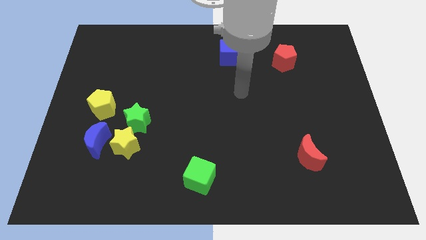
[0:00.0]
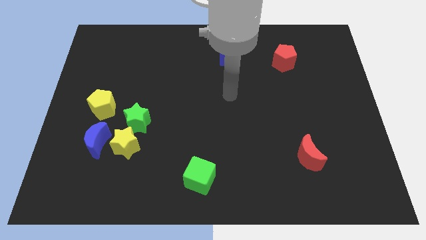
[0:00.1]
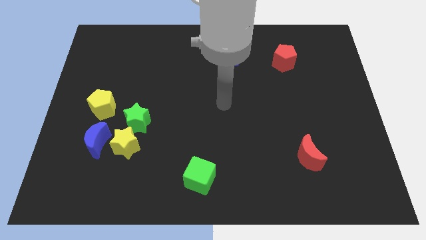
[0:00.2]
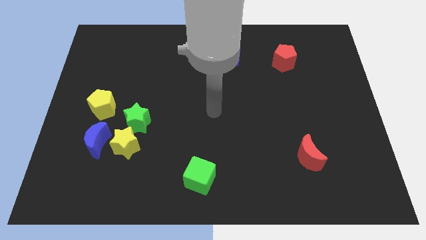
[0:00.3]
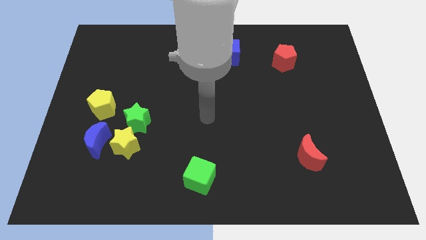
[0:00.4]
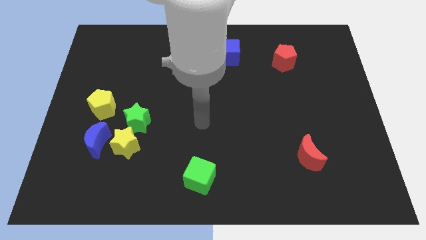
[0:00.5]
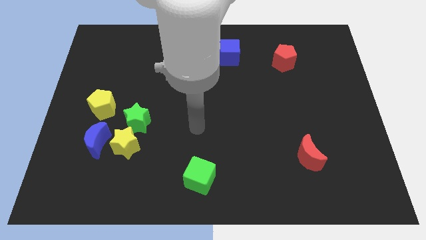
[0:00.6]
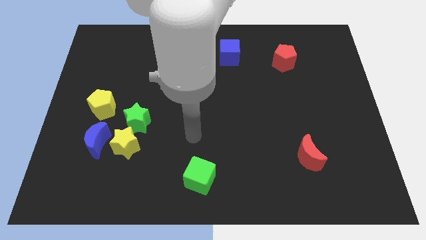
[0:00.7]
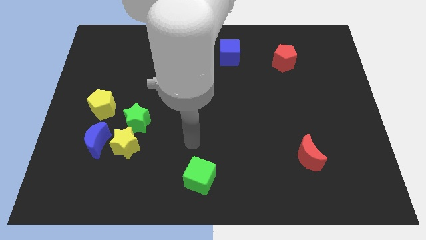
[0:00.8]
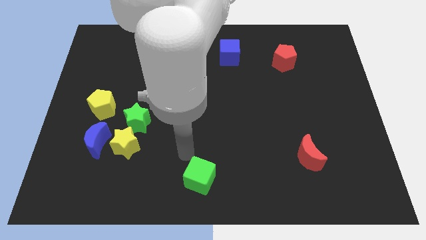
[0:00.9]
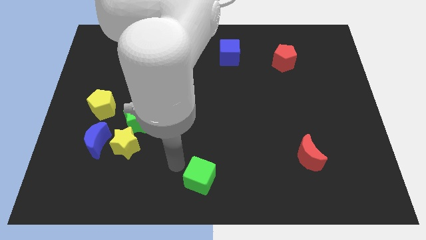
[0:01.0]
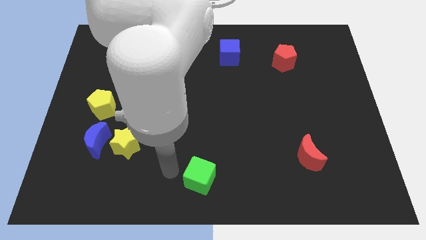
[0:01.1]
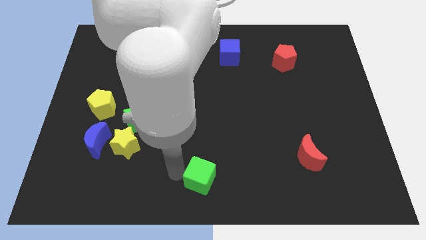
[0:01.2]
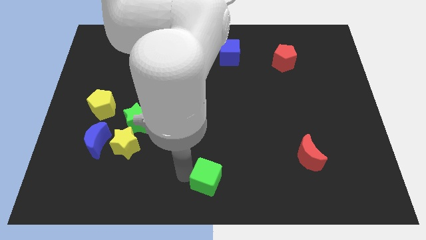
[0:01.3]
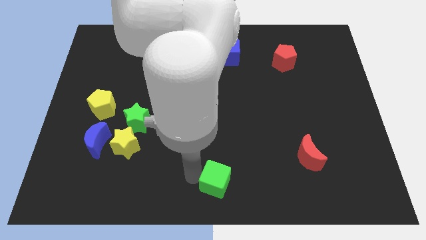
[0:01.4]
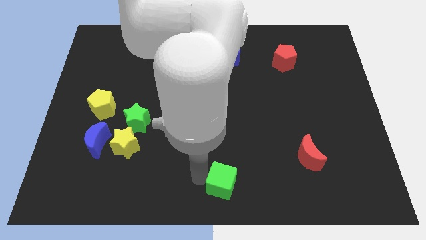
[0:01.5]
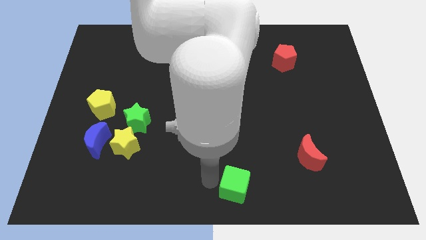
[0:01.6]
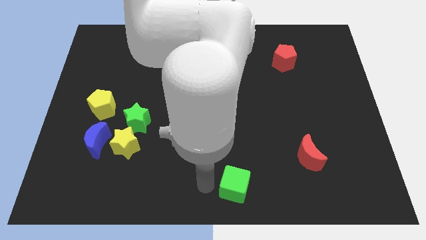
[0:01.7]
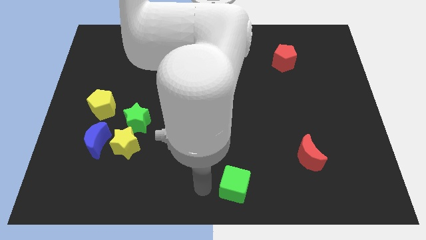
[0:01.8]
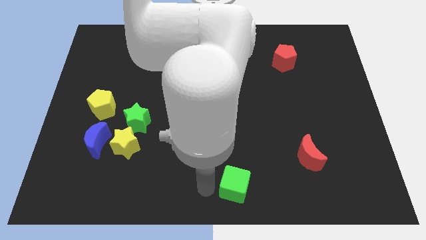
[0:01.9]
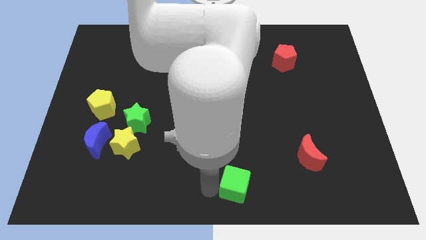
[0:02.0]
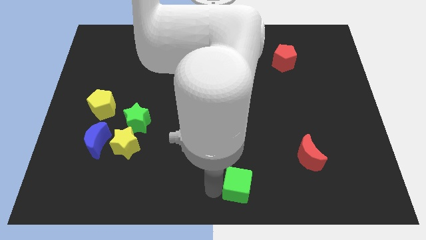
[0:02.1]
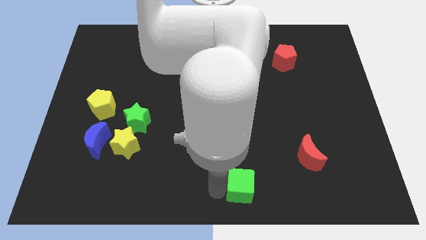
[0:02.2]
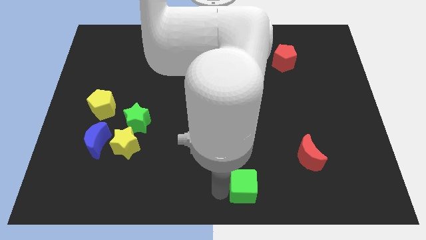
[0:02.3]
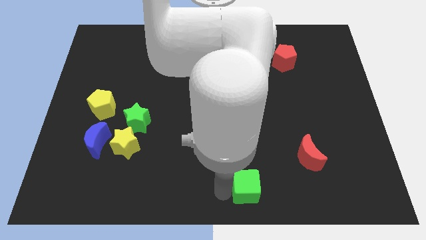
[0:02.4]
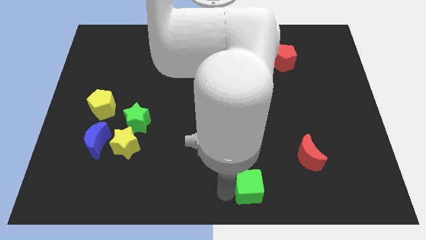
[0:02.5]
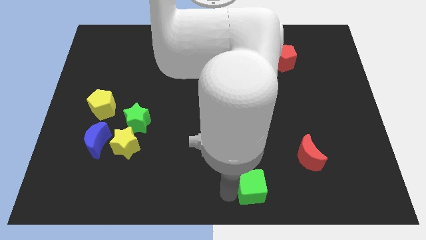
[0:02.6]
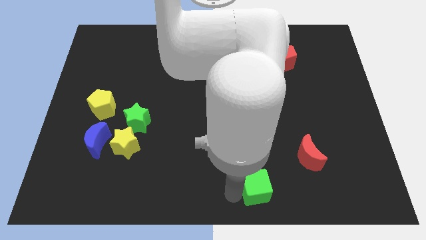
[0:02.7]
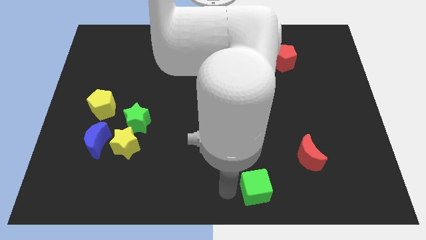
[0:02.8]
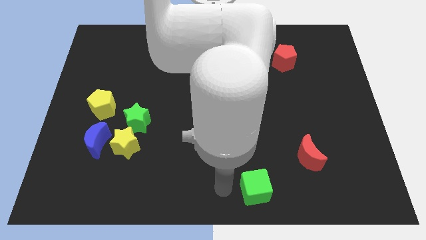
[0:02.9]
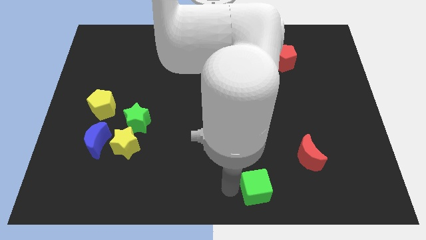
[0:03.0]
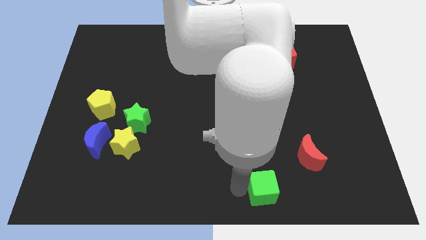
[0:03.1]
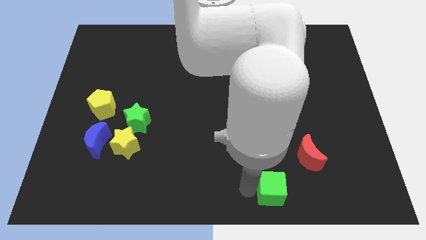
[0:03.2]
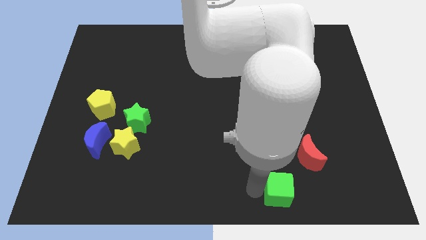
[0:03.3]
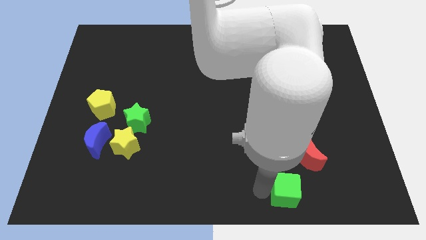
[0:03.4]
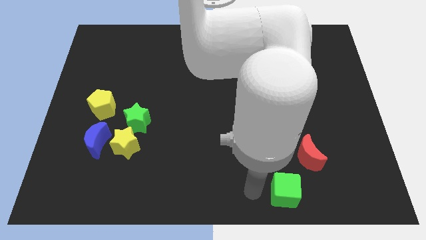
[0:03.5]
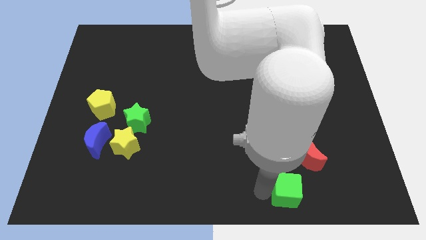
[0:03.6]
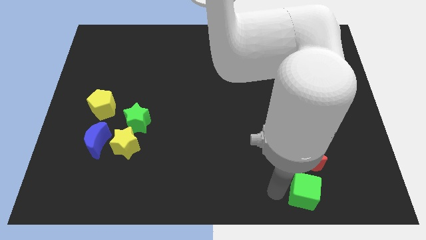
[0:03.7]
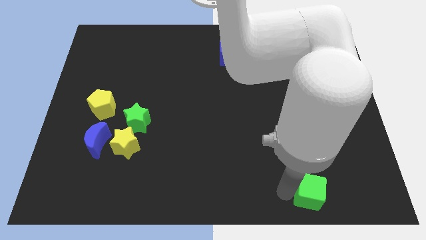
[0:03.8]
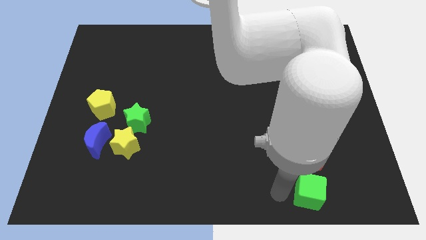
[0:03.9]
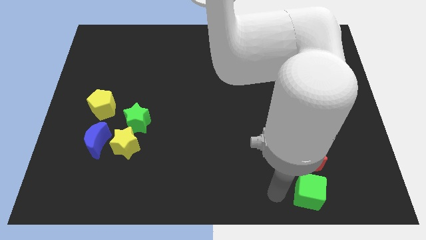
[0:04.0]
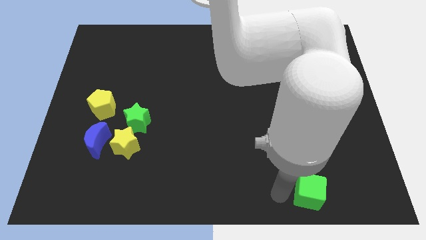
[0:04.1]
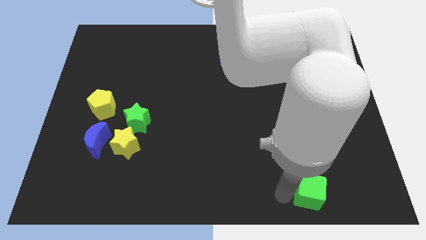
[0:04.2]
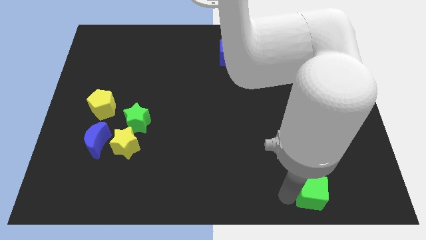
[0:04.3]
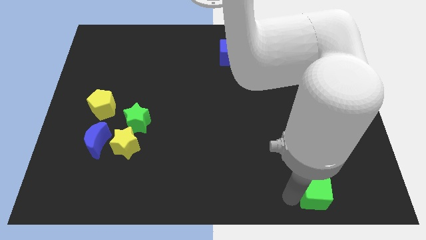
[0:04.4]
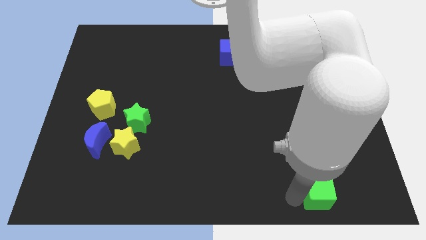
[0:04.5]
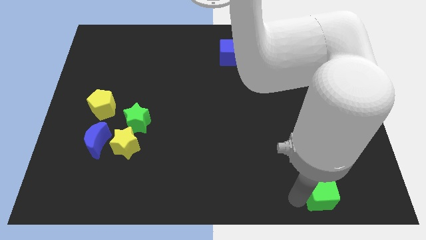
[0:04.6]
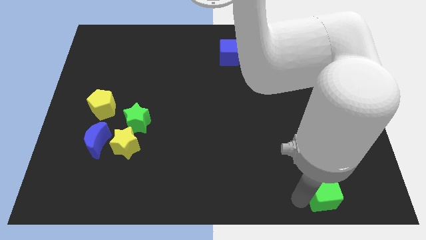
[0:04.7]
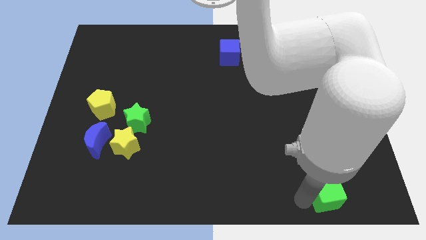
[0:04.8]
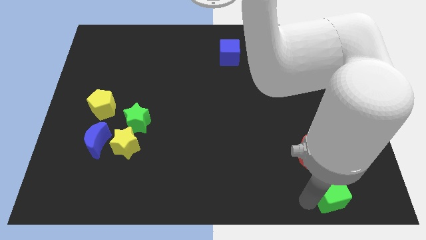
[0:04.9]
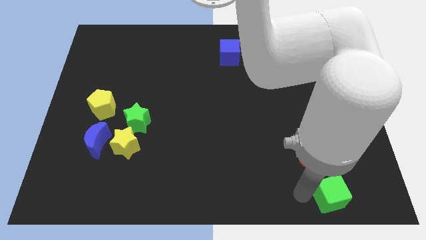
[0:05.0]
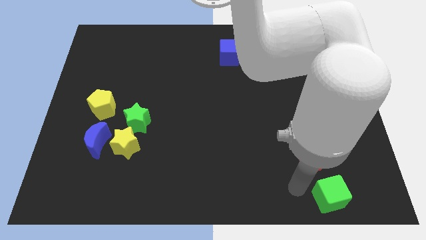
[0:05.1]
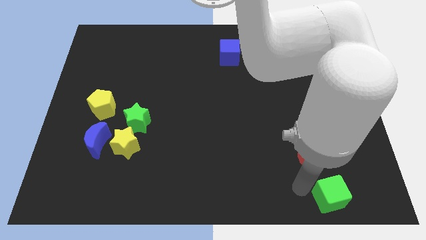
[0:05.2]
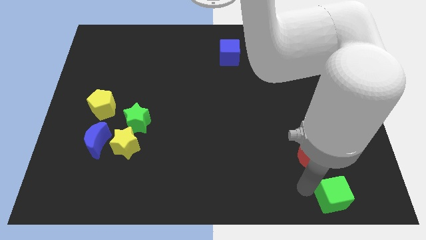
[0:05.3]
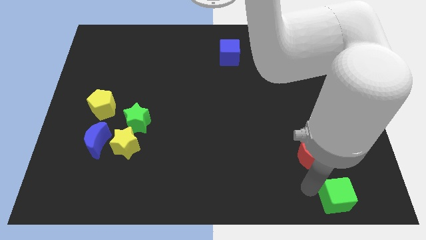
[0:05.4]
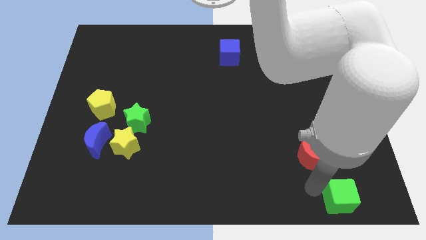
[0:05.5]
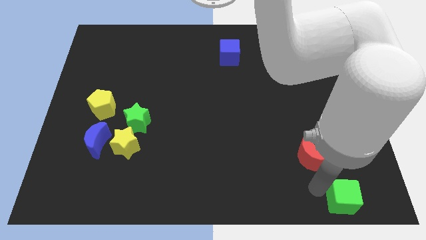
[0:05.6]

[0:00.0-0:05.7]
slide the green cube to the bottom right corner

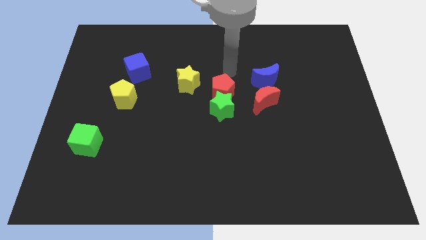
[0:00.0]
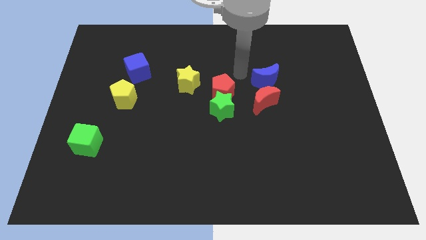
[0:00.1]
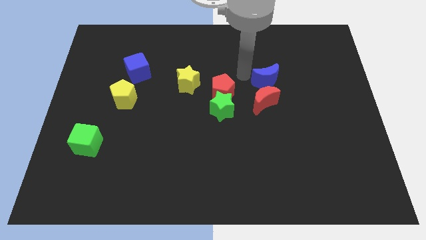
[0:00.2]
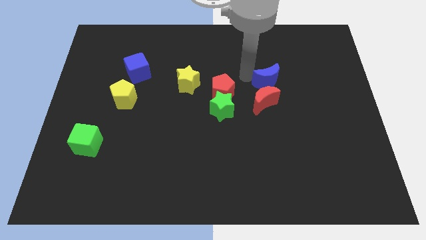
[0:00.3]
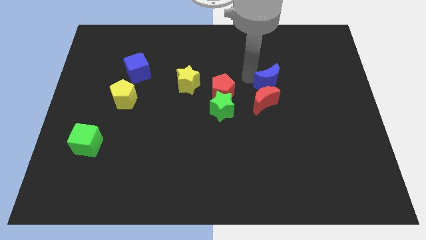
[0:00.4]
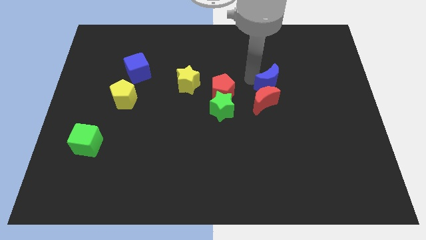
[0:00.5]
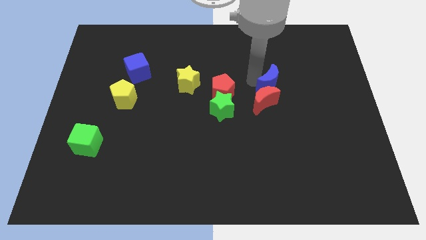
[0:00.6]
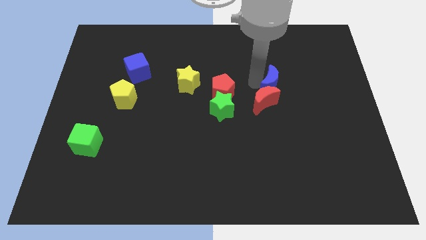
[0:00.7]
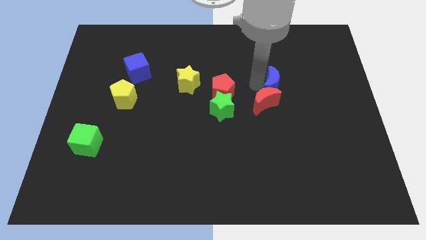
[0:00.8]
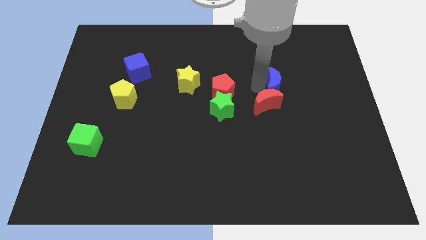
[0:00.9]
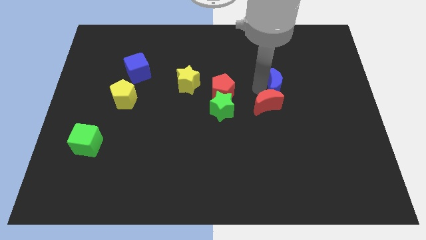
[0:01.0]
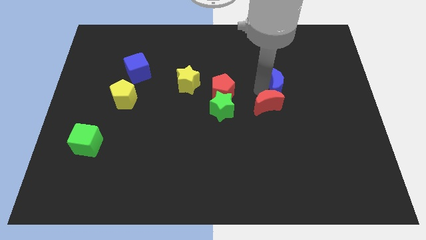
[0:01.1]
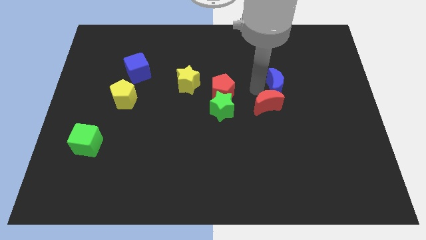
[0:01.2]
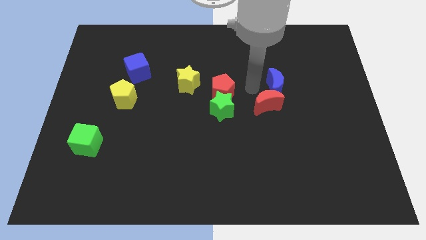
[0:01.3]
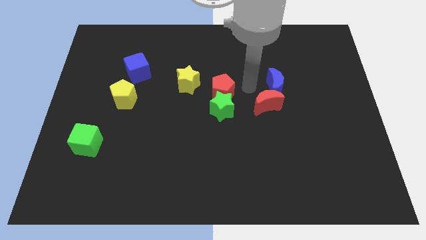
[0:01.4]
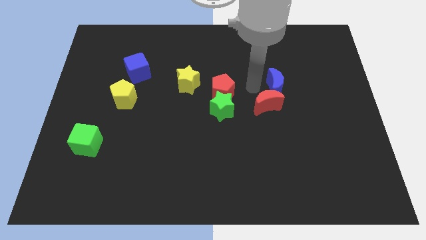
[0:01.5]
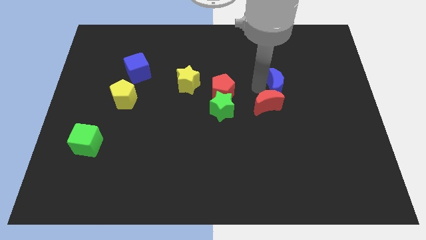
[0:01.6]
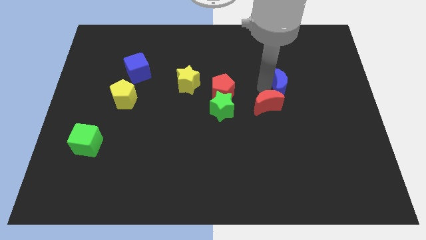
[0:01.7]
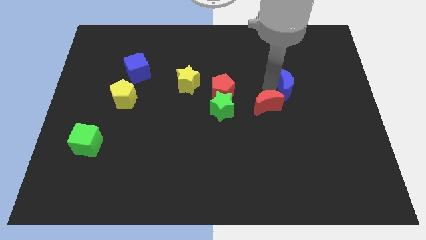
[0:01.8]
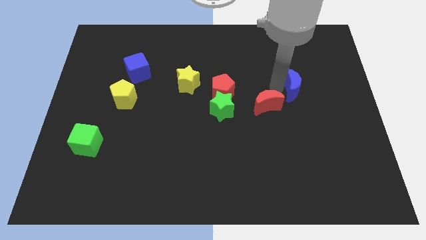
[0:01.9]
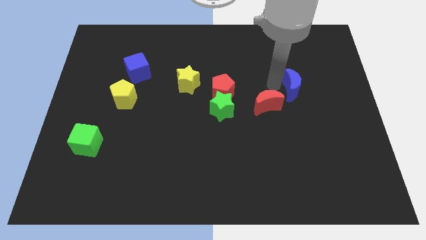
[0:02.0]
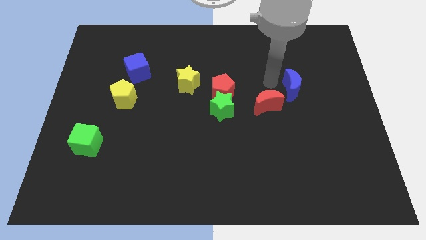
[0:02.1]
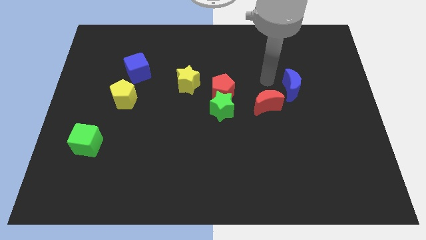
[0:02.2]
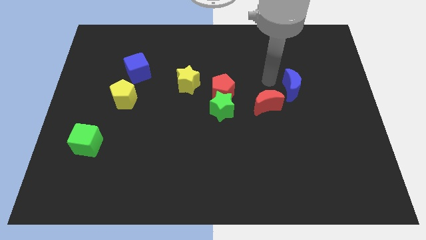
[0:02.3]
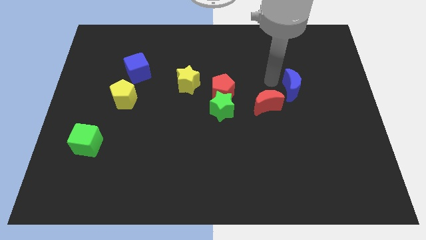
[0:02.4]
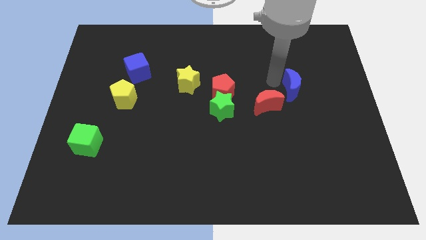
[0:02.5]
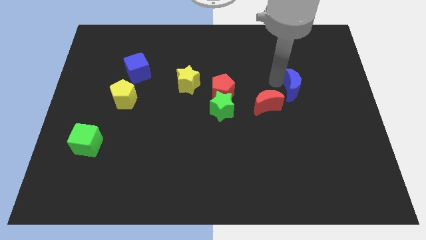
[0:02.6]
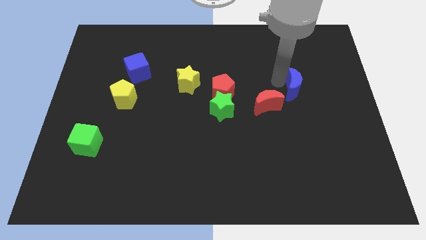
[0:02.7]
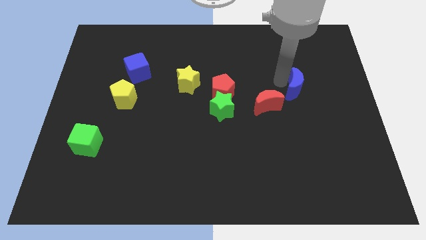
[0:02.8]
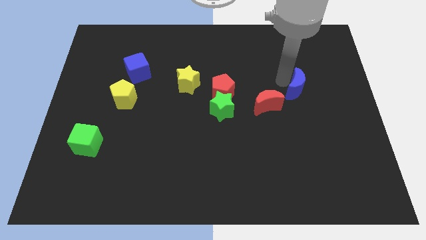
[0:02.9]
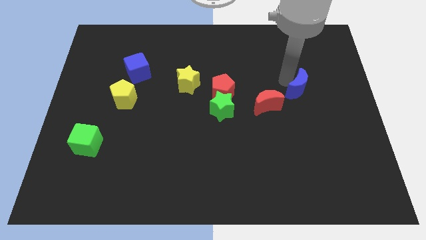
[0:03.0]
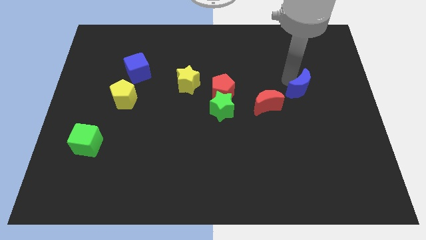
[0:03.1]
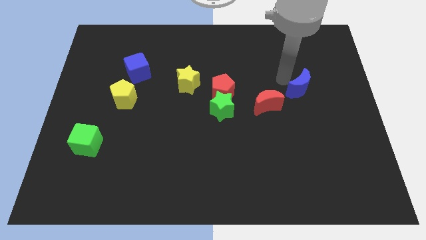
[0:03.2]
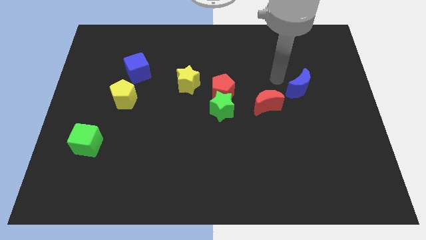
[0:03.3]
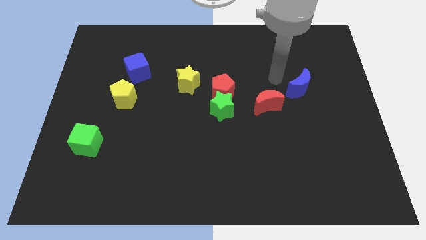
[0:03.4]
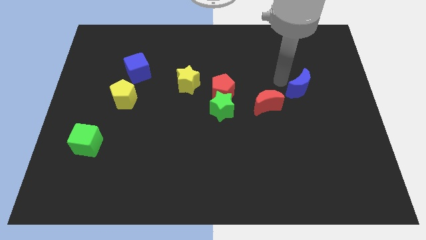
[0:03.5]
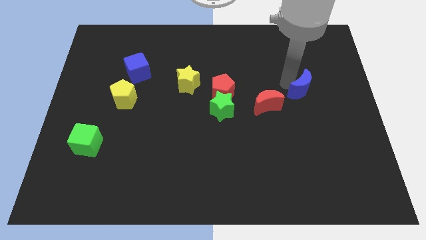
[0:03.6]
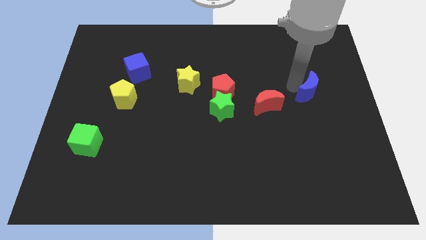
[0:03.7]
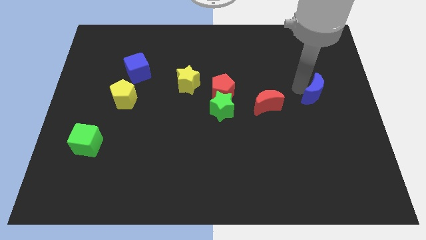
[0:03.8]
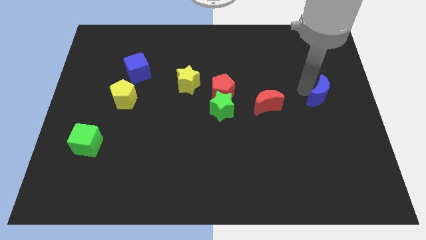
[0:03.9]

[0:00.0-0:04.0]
move the blue moon to the center right
